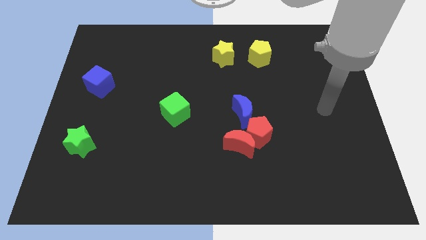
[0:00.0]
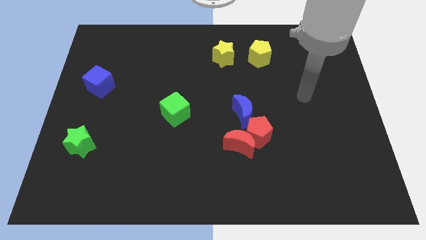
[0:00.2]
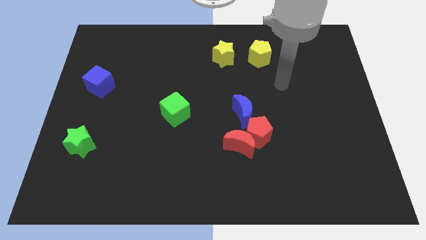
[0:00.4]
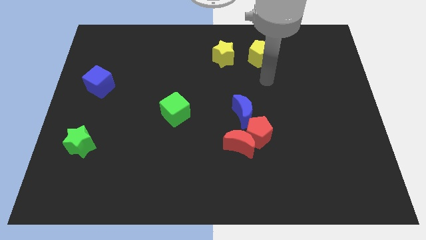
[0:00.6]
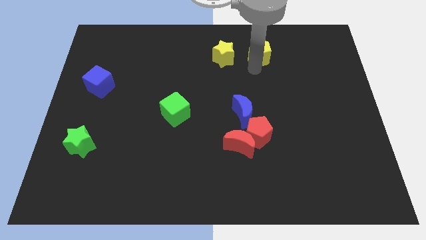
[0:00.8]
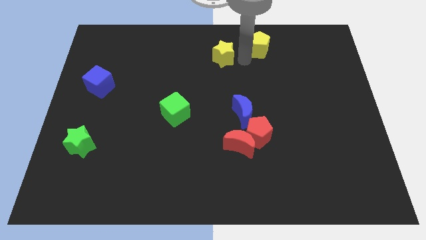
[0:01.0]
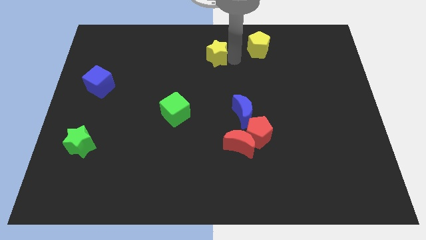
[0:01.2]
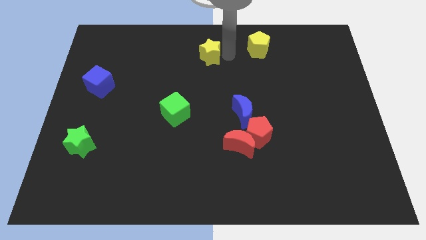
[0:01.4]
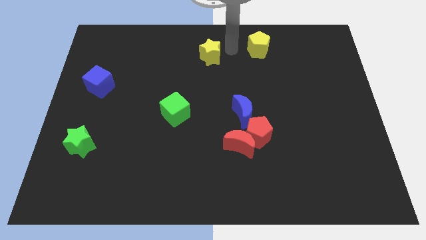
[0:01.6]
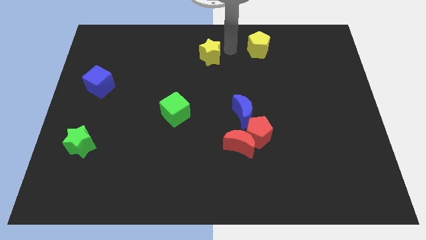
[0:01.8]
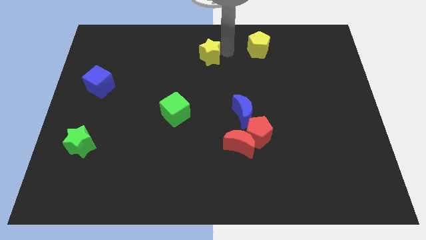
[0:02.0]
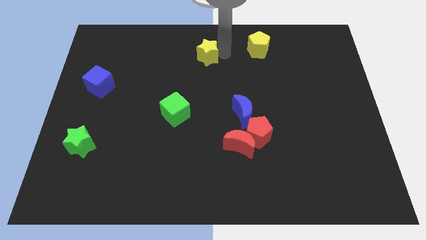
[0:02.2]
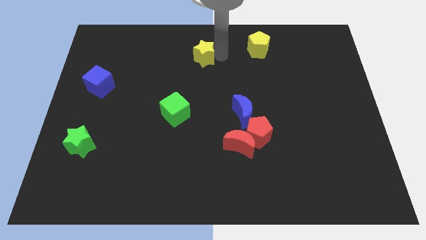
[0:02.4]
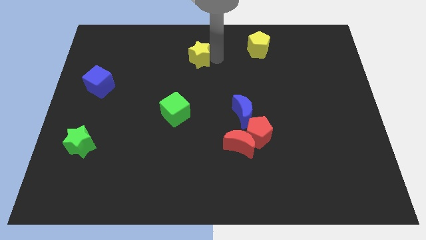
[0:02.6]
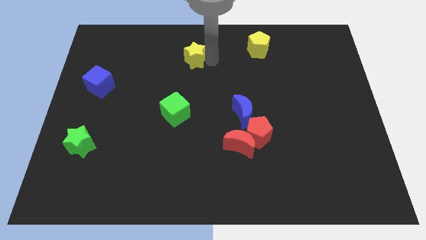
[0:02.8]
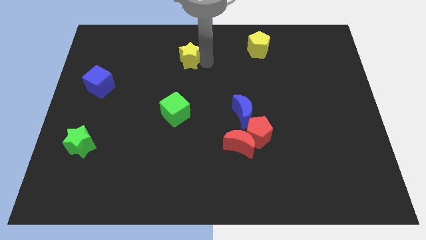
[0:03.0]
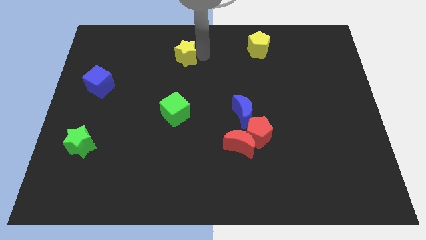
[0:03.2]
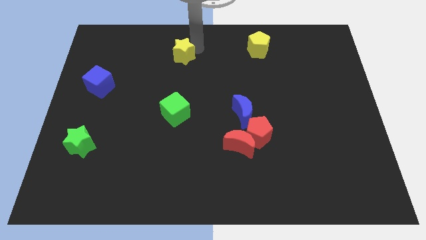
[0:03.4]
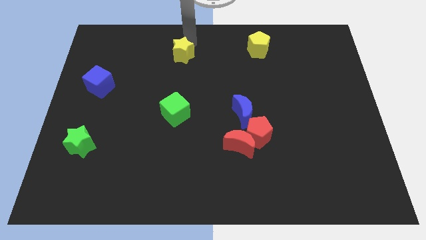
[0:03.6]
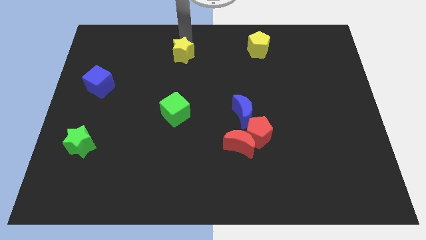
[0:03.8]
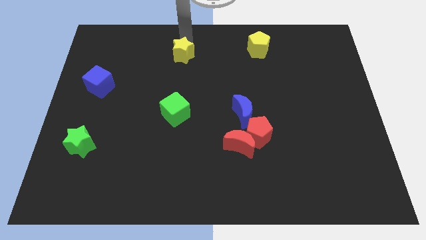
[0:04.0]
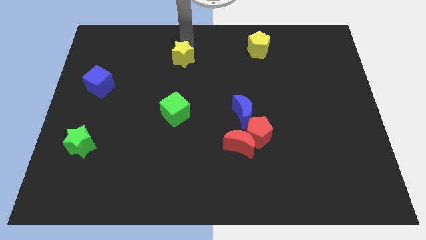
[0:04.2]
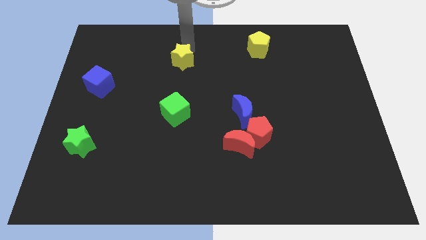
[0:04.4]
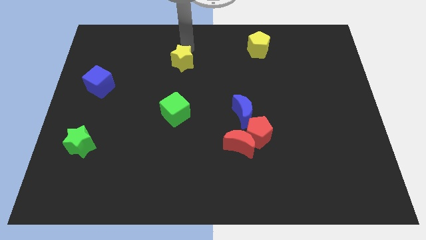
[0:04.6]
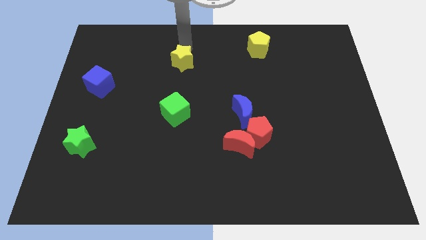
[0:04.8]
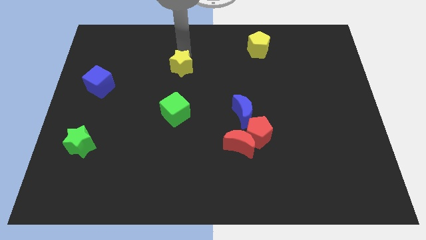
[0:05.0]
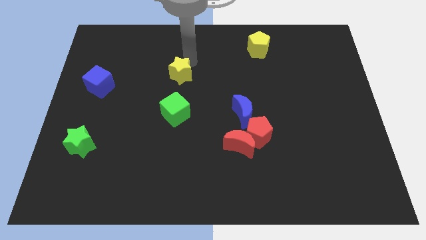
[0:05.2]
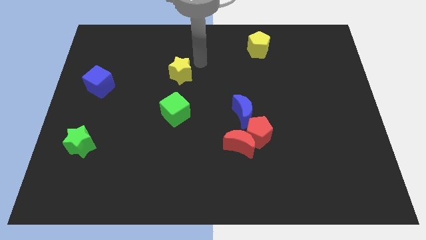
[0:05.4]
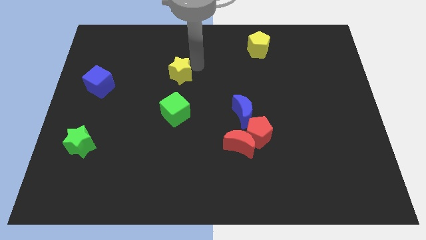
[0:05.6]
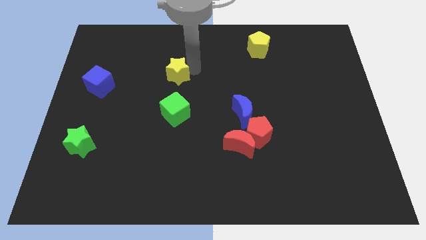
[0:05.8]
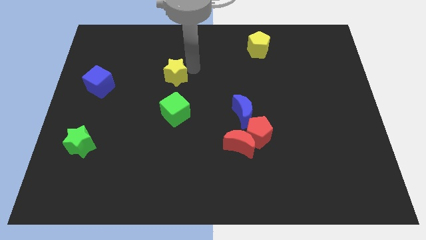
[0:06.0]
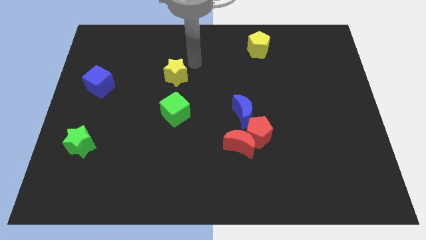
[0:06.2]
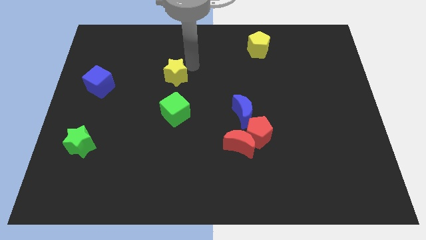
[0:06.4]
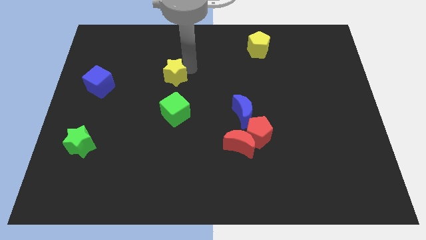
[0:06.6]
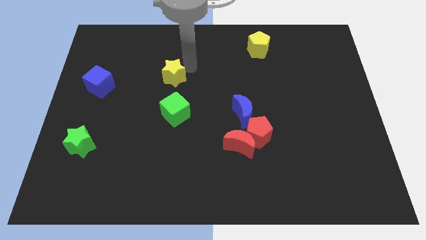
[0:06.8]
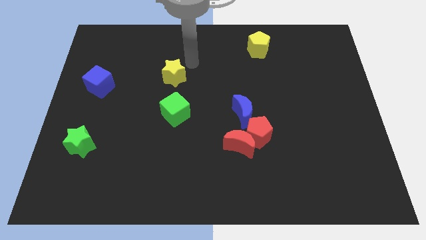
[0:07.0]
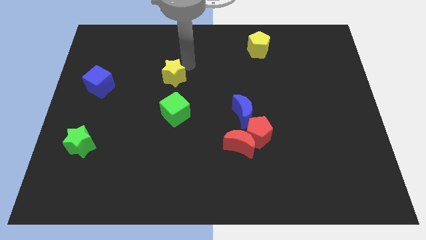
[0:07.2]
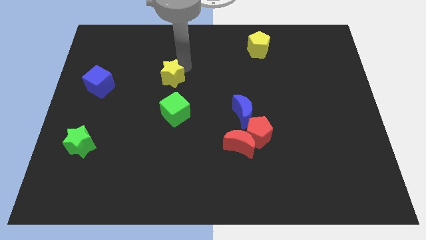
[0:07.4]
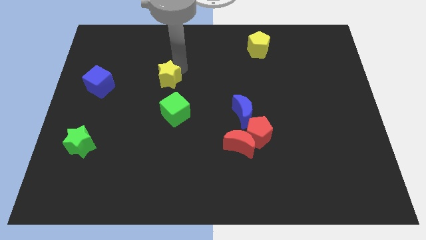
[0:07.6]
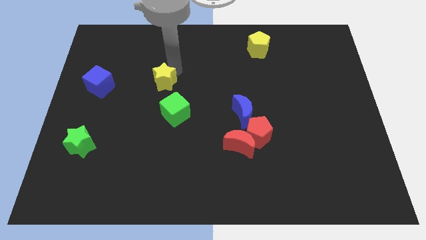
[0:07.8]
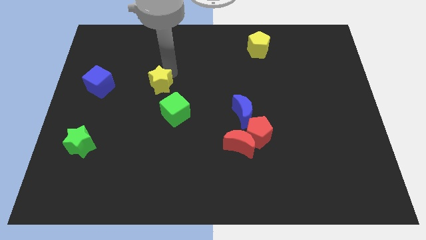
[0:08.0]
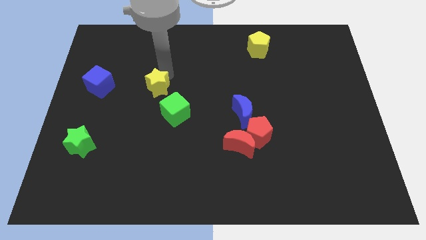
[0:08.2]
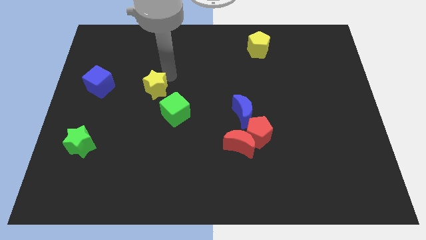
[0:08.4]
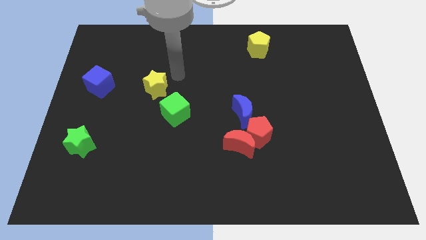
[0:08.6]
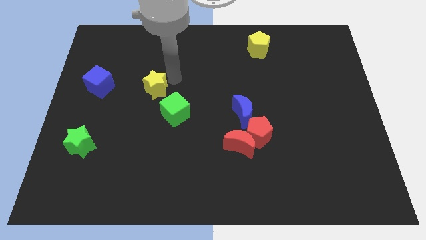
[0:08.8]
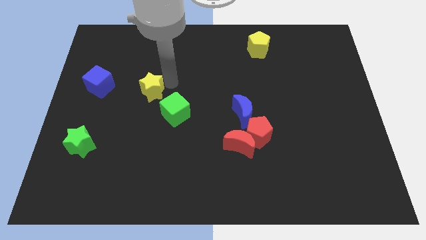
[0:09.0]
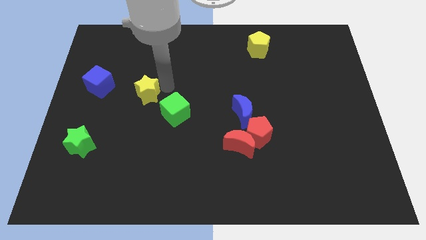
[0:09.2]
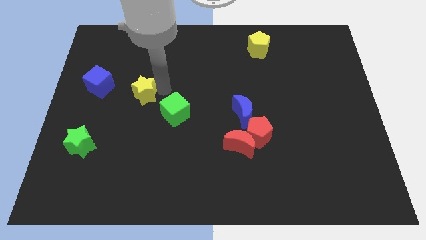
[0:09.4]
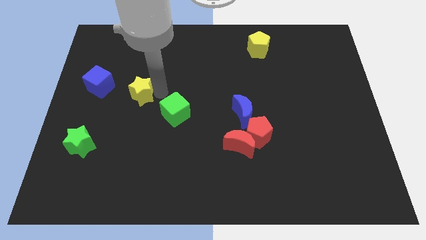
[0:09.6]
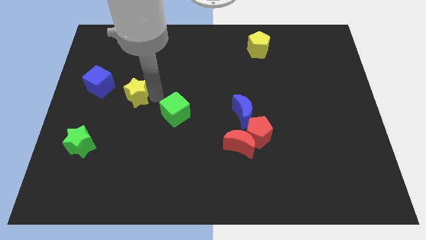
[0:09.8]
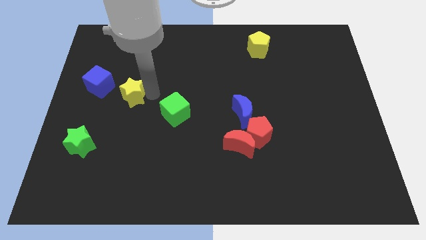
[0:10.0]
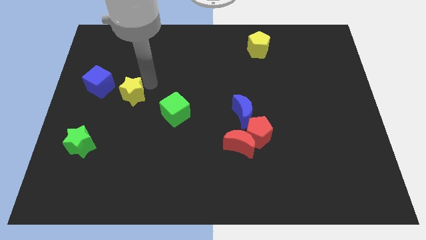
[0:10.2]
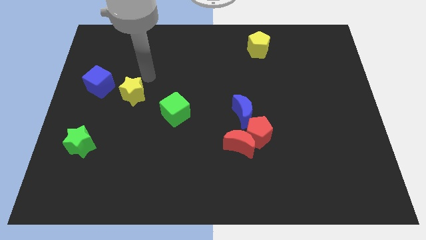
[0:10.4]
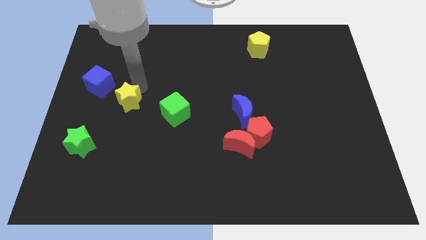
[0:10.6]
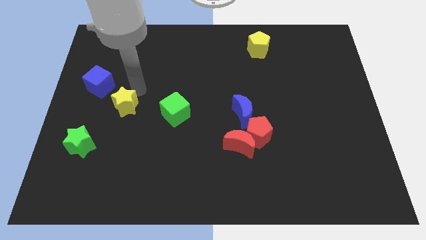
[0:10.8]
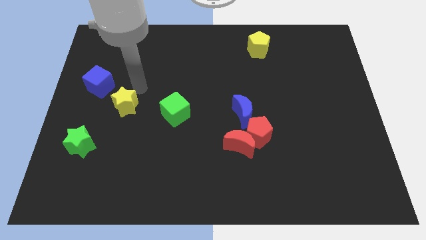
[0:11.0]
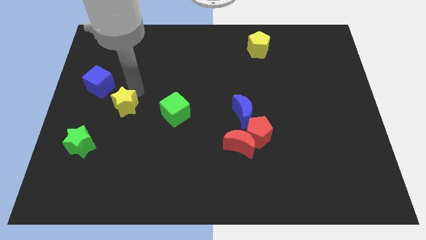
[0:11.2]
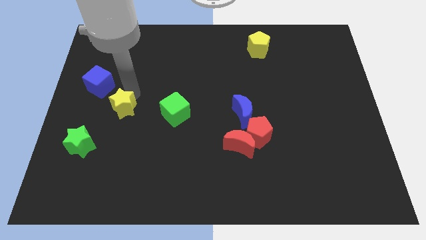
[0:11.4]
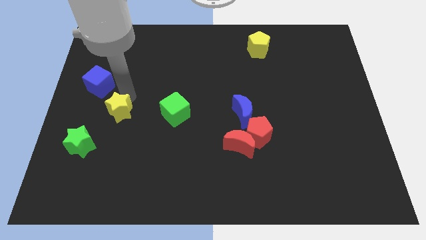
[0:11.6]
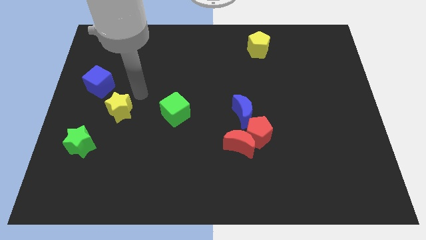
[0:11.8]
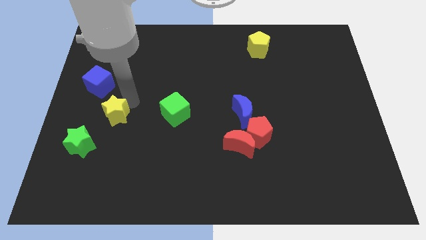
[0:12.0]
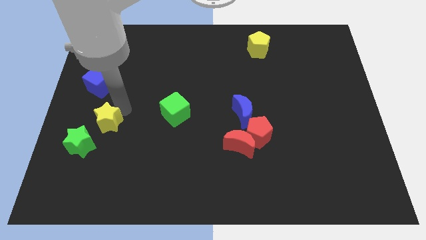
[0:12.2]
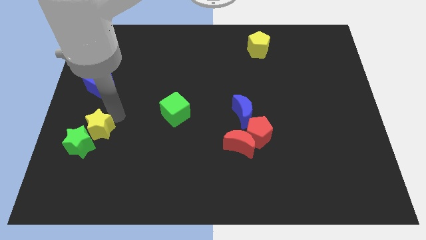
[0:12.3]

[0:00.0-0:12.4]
push the yellow star to the green star

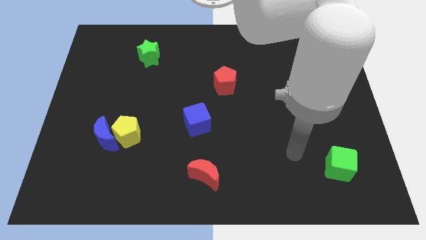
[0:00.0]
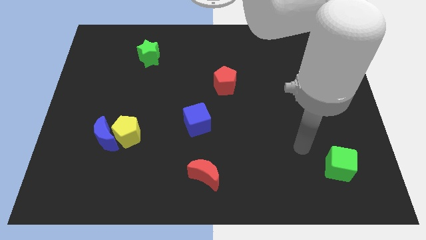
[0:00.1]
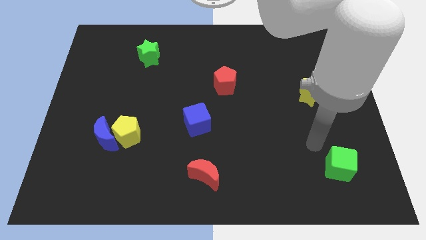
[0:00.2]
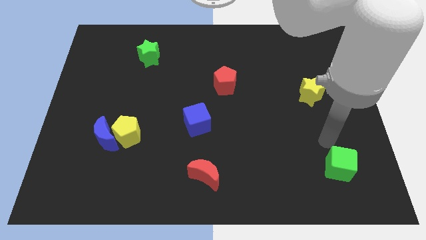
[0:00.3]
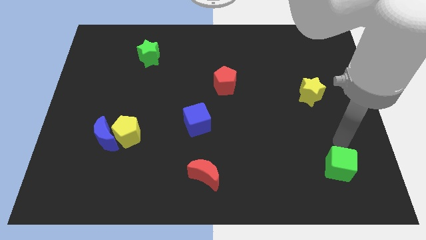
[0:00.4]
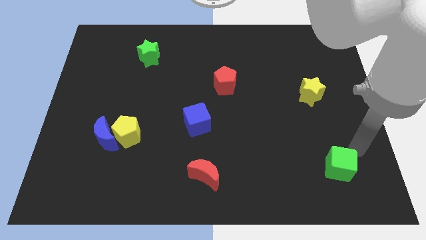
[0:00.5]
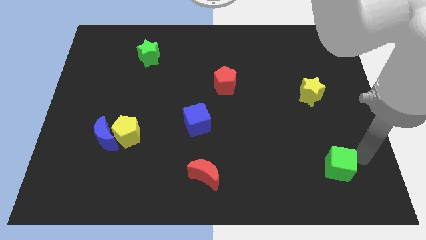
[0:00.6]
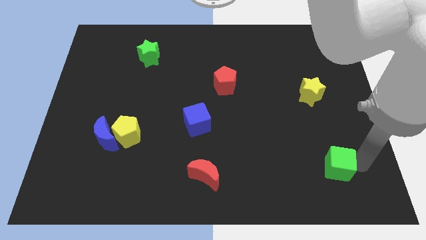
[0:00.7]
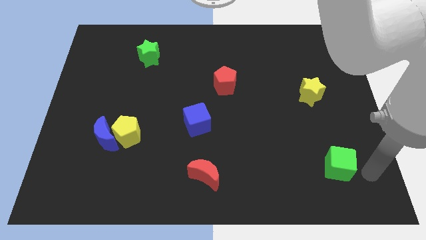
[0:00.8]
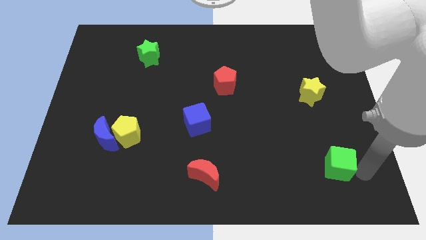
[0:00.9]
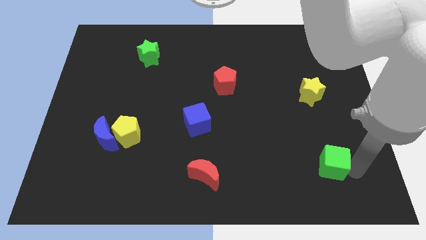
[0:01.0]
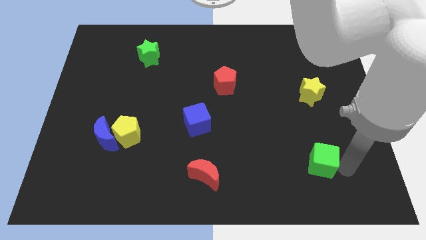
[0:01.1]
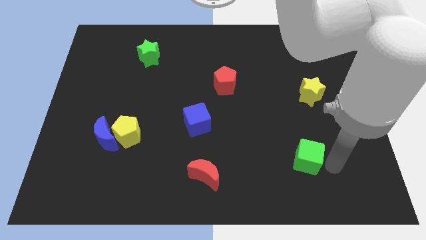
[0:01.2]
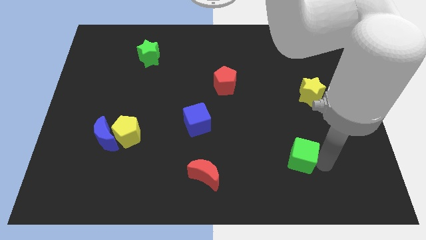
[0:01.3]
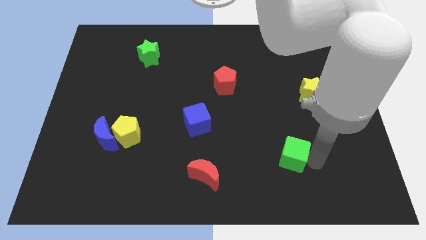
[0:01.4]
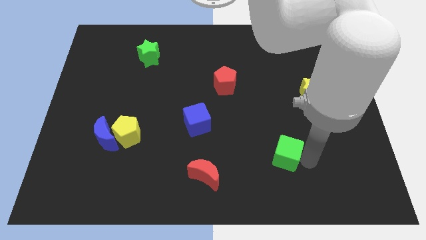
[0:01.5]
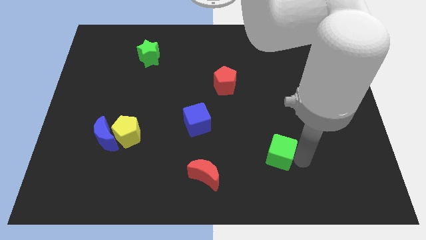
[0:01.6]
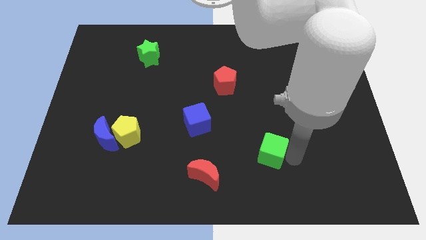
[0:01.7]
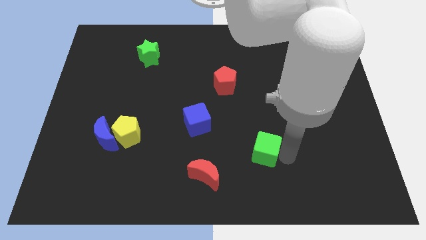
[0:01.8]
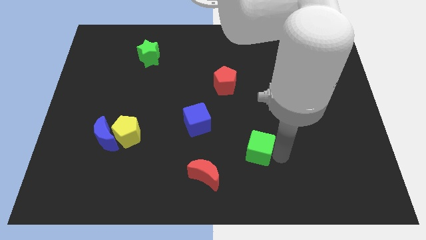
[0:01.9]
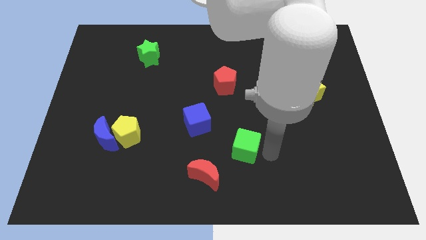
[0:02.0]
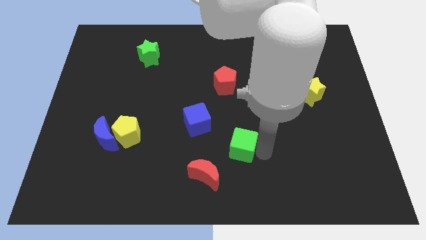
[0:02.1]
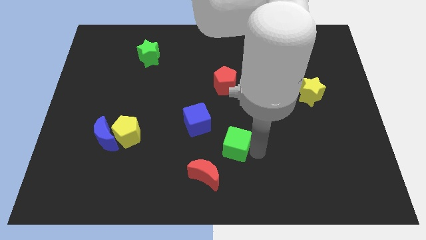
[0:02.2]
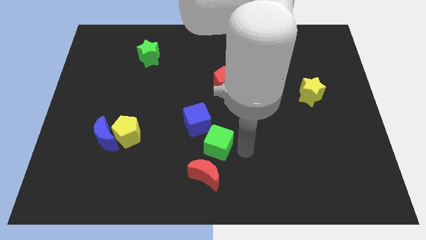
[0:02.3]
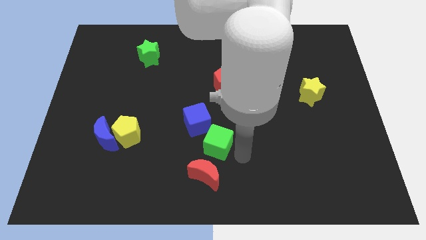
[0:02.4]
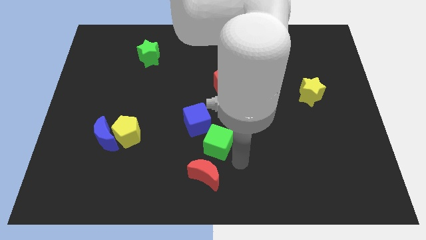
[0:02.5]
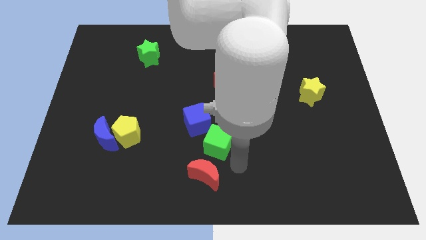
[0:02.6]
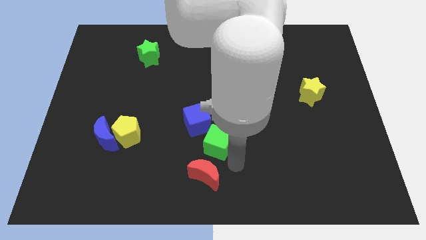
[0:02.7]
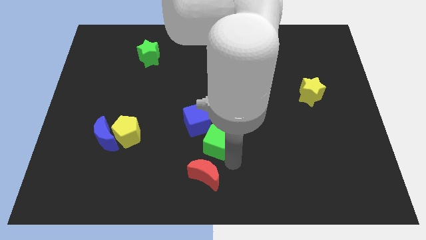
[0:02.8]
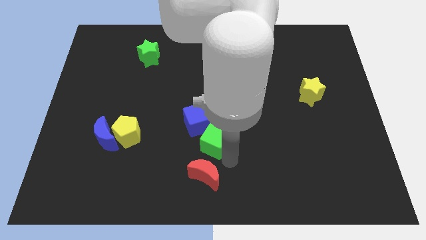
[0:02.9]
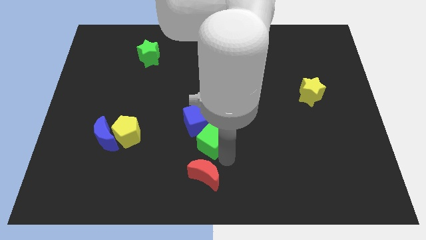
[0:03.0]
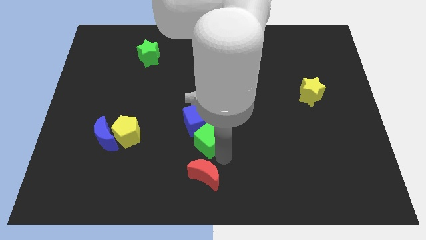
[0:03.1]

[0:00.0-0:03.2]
slide the green cube next to the blue cube
